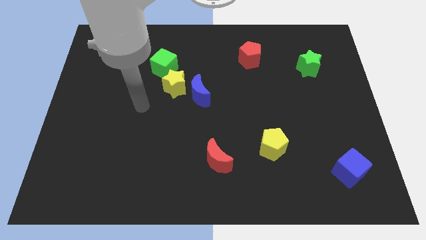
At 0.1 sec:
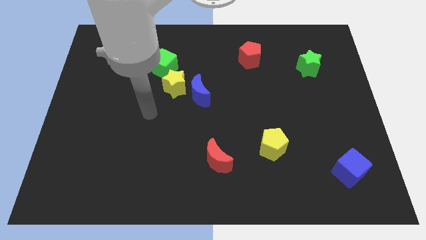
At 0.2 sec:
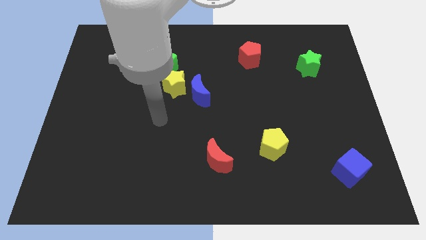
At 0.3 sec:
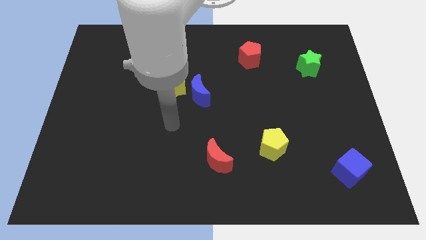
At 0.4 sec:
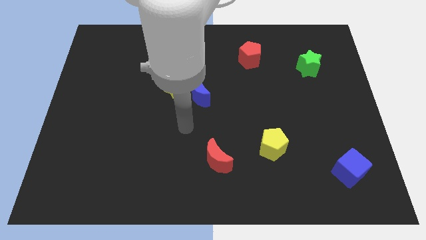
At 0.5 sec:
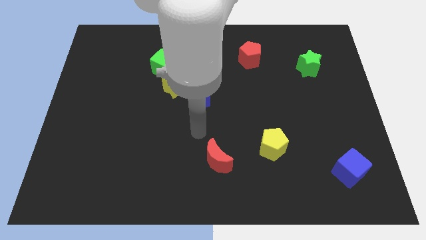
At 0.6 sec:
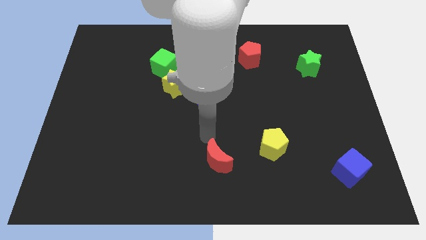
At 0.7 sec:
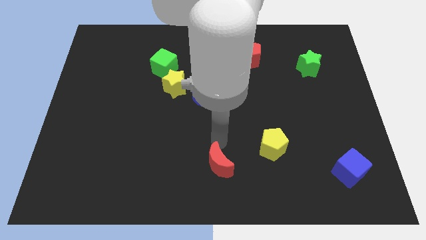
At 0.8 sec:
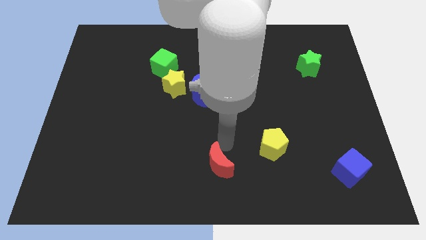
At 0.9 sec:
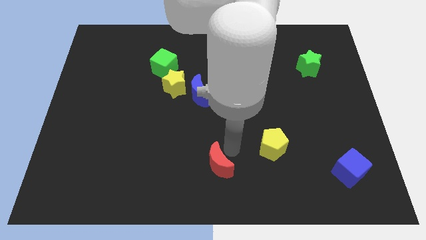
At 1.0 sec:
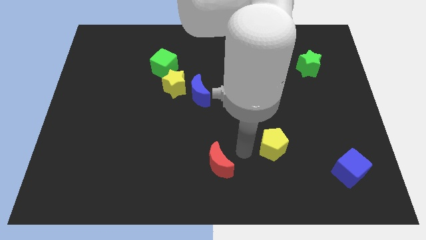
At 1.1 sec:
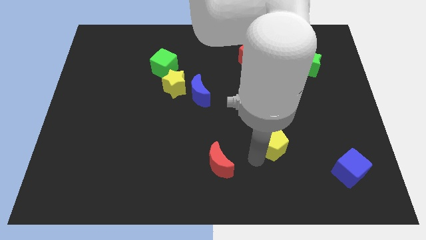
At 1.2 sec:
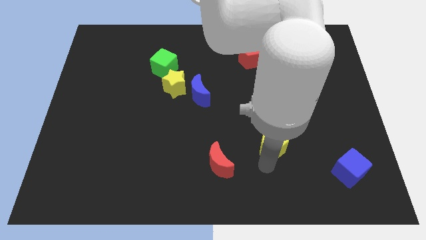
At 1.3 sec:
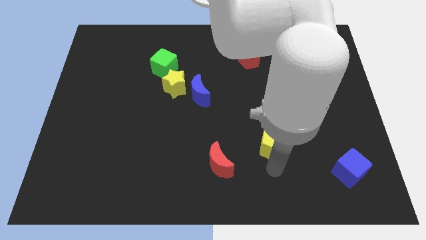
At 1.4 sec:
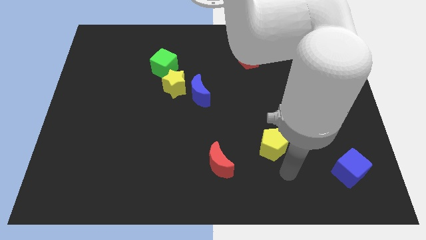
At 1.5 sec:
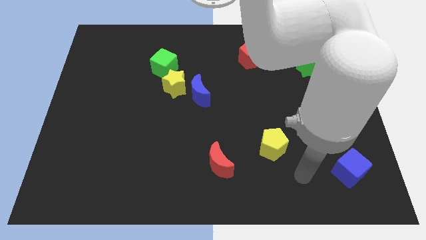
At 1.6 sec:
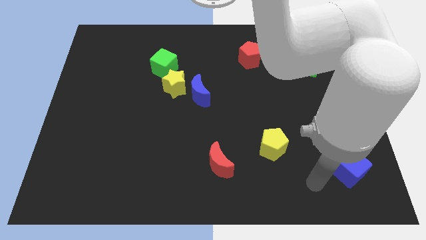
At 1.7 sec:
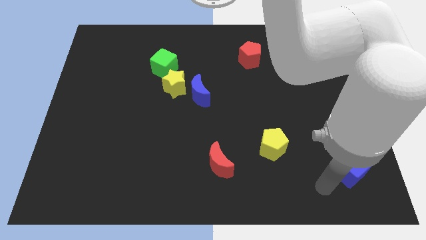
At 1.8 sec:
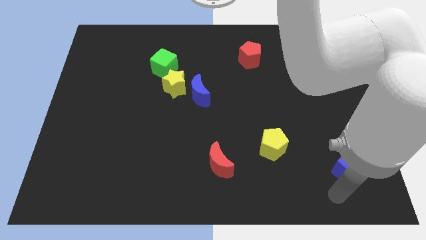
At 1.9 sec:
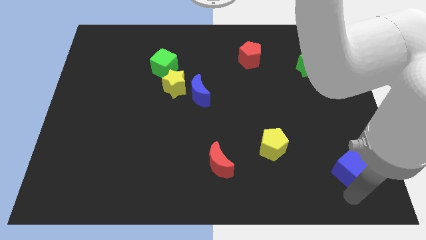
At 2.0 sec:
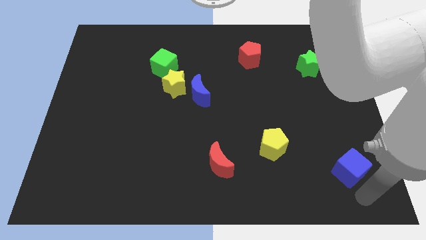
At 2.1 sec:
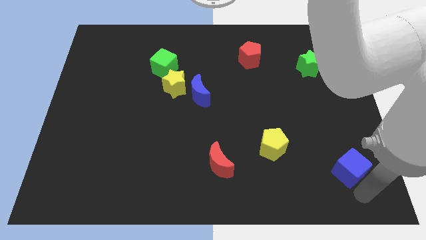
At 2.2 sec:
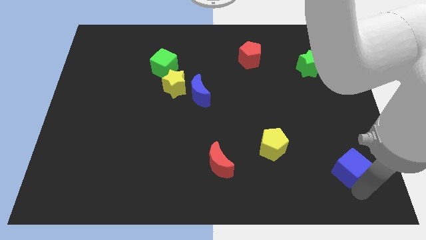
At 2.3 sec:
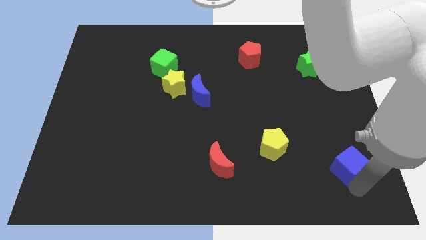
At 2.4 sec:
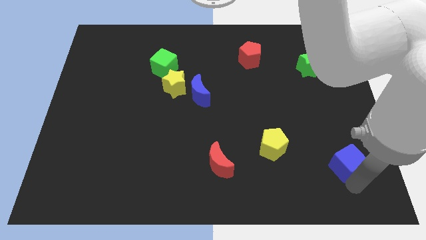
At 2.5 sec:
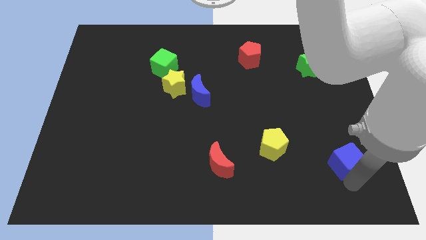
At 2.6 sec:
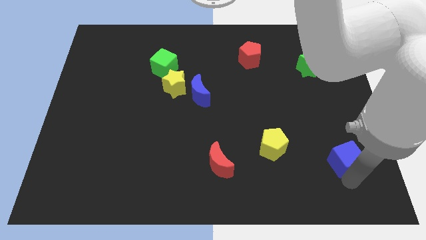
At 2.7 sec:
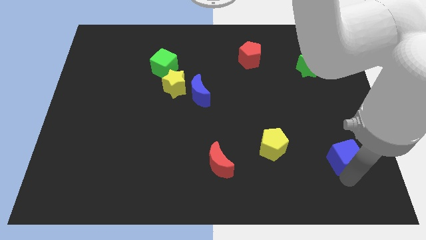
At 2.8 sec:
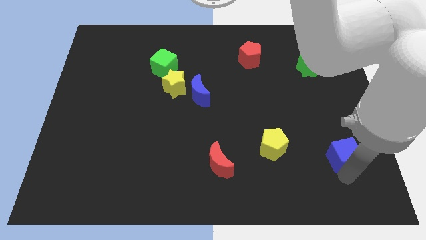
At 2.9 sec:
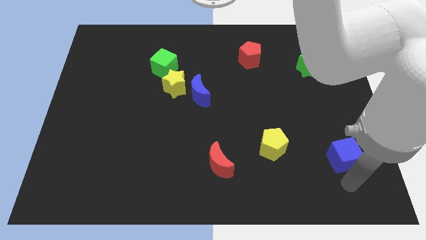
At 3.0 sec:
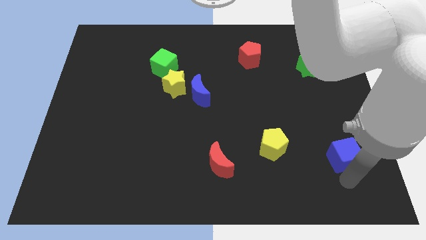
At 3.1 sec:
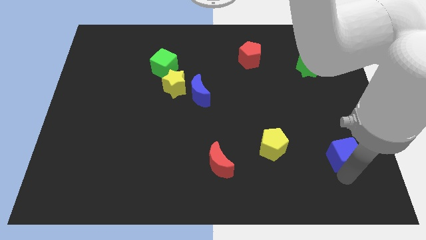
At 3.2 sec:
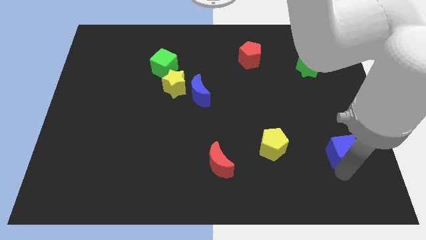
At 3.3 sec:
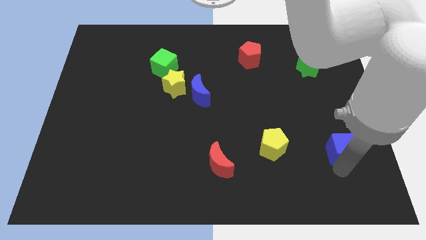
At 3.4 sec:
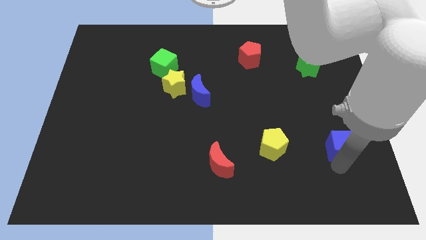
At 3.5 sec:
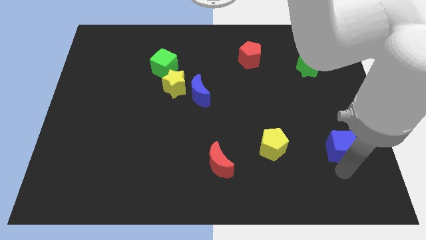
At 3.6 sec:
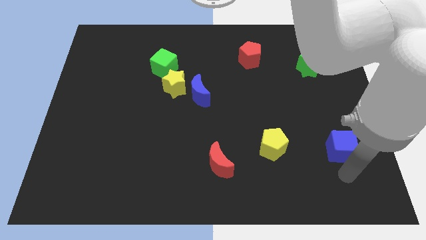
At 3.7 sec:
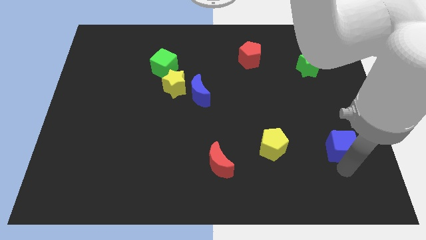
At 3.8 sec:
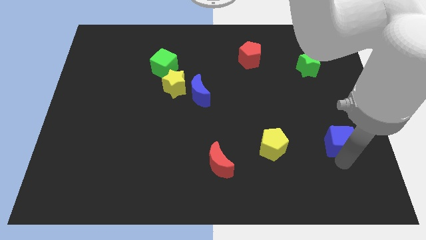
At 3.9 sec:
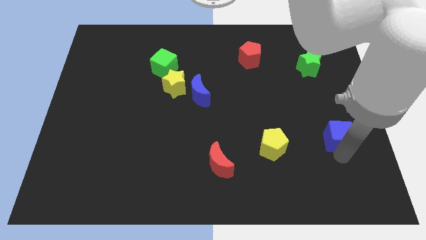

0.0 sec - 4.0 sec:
push the blue cube up a little

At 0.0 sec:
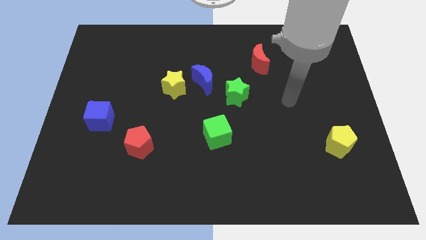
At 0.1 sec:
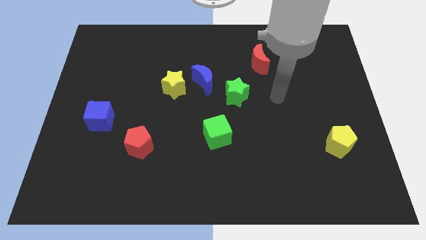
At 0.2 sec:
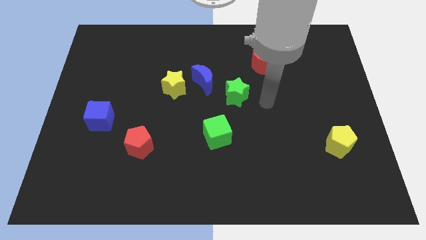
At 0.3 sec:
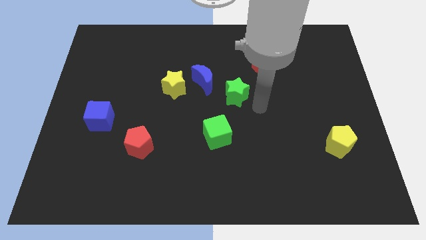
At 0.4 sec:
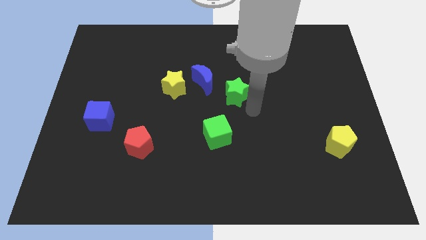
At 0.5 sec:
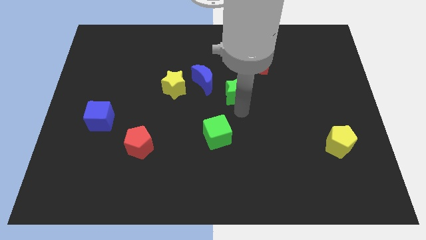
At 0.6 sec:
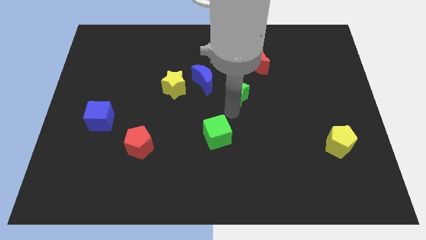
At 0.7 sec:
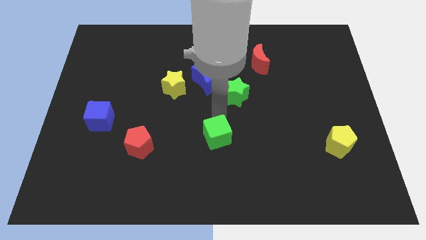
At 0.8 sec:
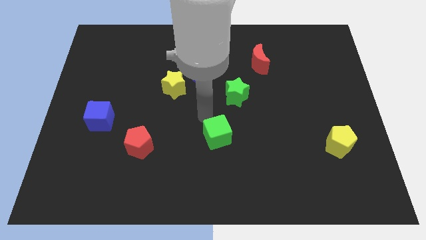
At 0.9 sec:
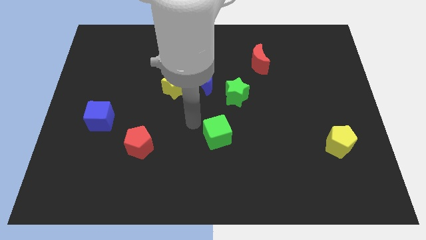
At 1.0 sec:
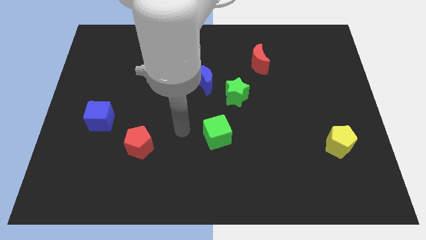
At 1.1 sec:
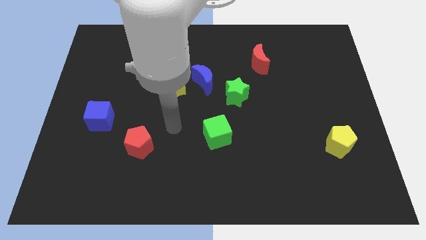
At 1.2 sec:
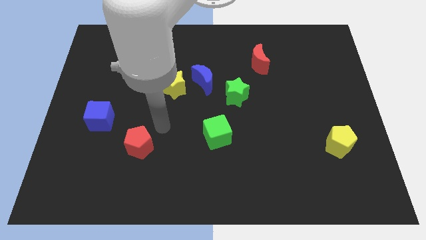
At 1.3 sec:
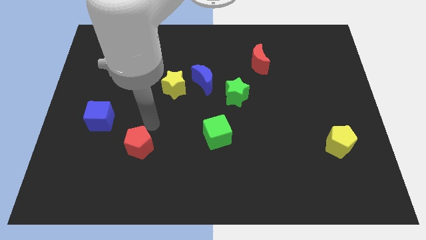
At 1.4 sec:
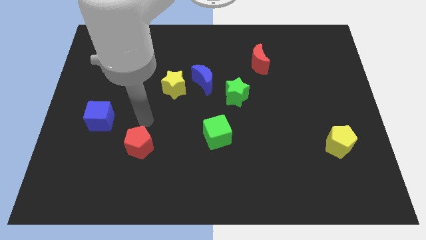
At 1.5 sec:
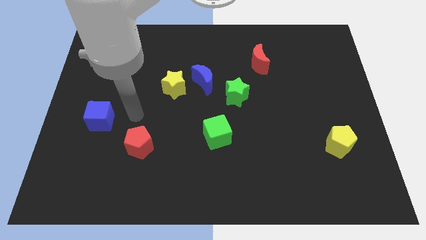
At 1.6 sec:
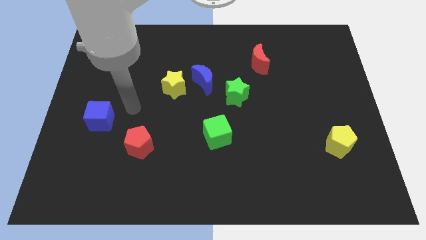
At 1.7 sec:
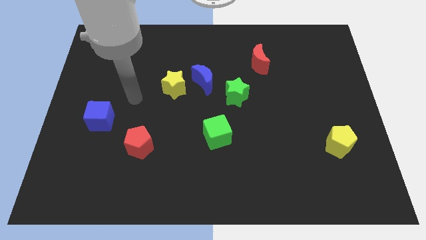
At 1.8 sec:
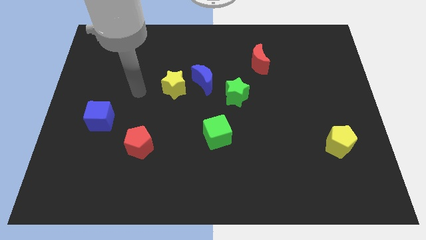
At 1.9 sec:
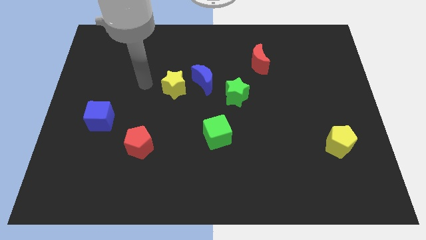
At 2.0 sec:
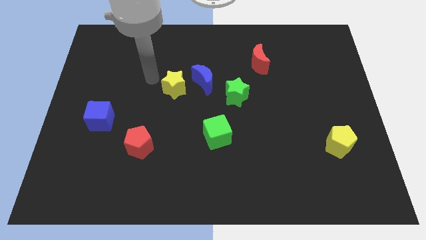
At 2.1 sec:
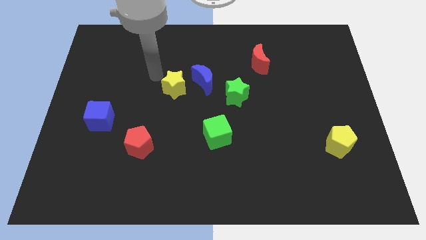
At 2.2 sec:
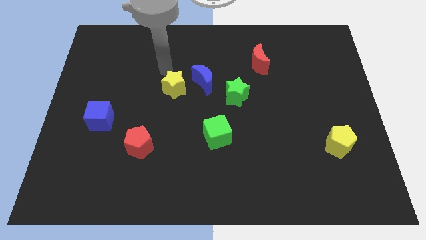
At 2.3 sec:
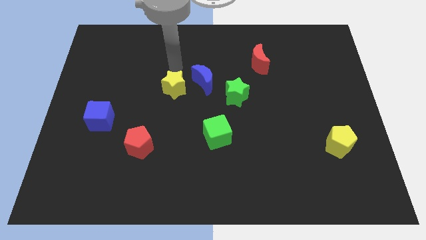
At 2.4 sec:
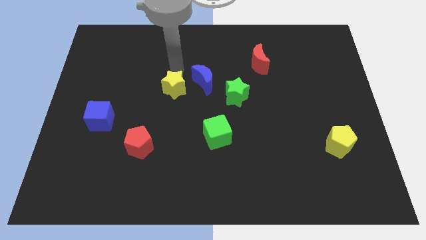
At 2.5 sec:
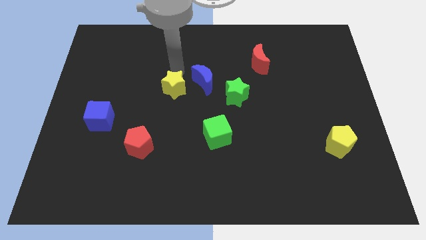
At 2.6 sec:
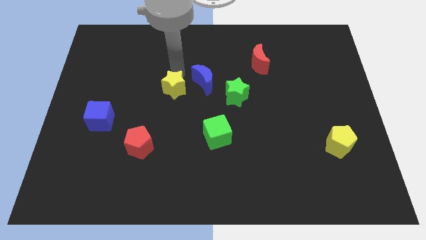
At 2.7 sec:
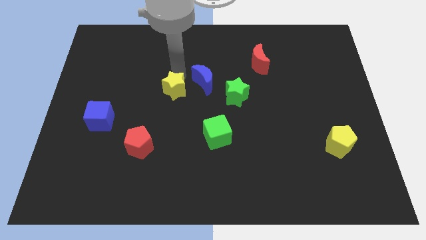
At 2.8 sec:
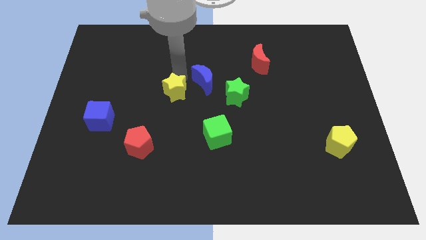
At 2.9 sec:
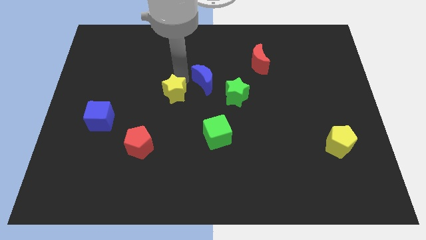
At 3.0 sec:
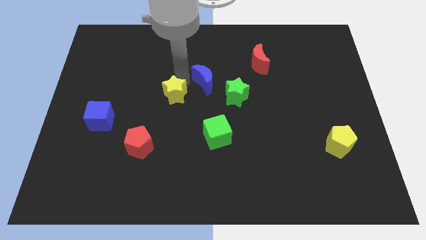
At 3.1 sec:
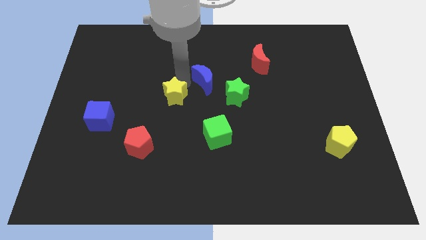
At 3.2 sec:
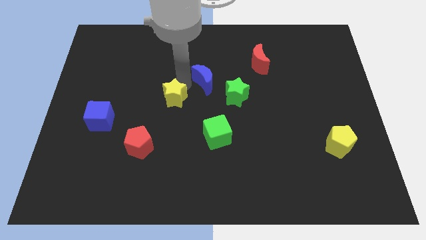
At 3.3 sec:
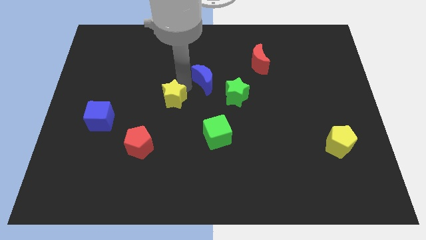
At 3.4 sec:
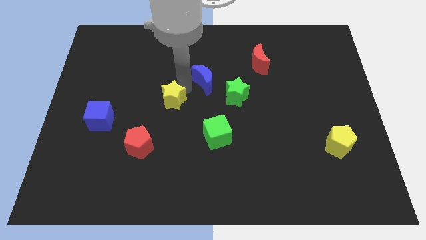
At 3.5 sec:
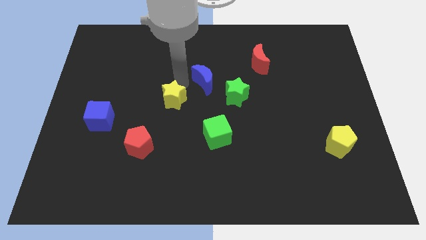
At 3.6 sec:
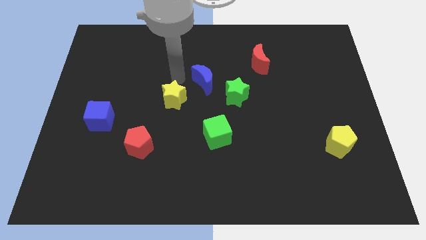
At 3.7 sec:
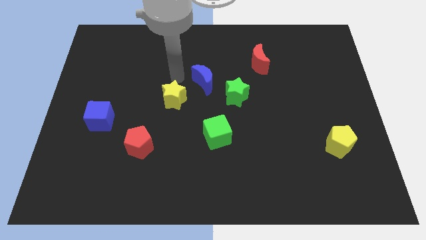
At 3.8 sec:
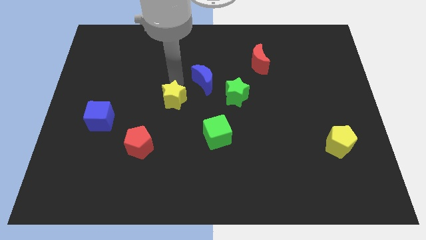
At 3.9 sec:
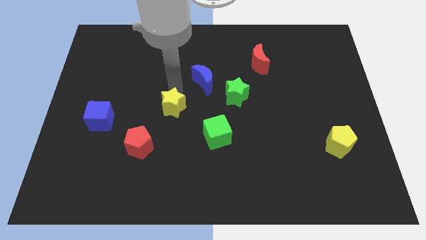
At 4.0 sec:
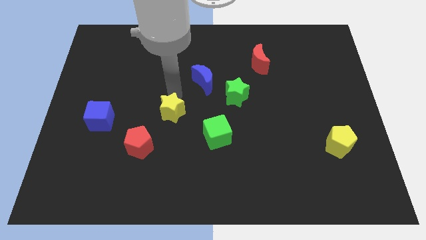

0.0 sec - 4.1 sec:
move the yellow star somewhat downwards
